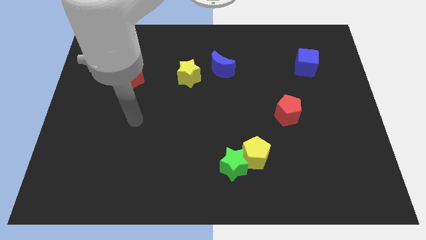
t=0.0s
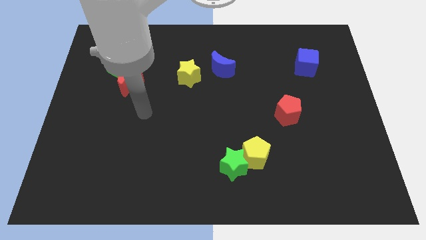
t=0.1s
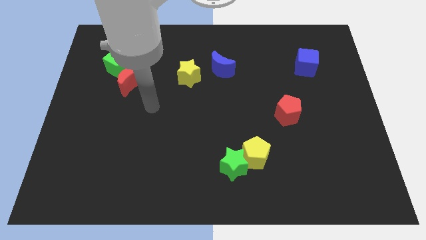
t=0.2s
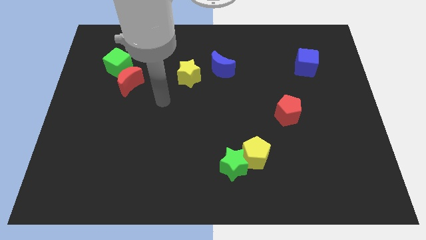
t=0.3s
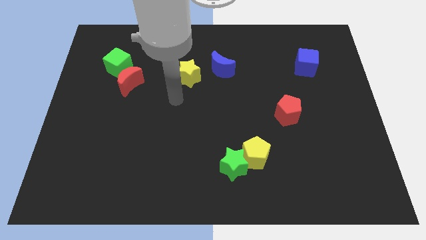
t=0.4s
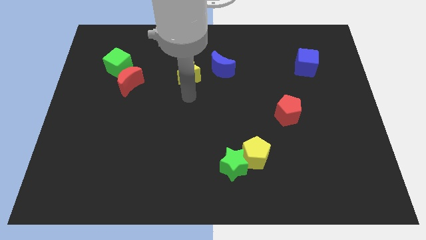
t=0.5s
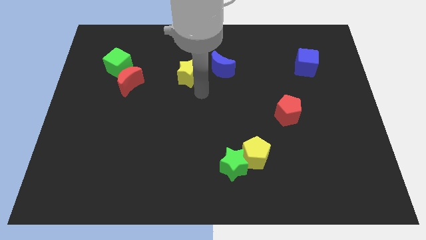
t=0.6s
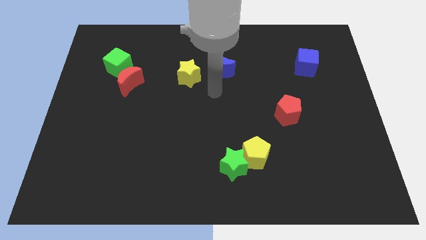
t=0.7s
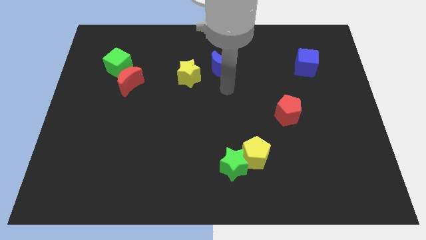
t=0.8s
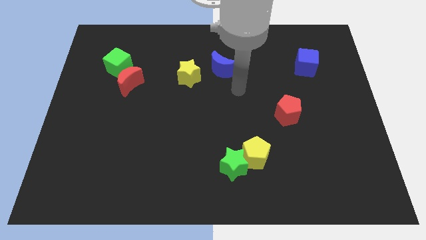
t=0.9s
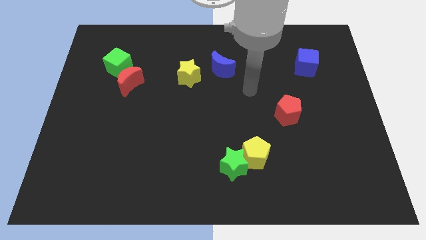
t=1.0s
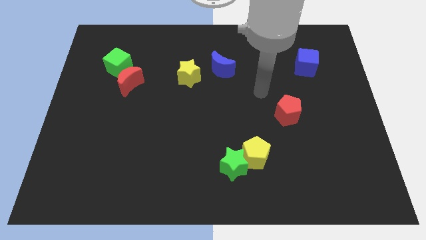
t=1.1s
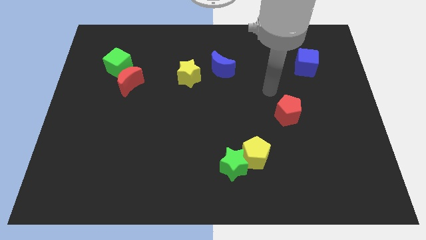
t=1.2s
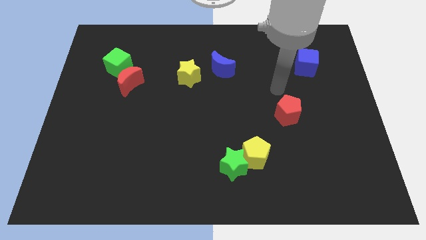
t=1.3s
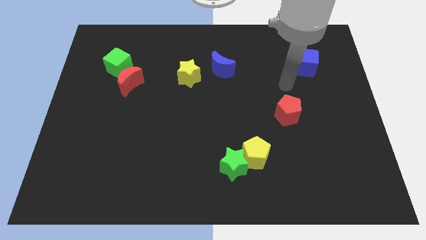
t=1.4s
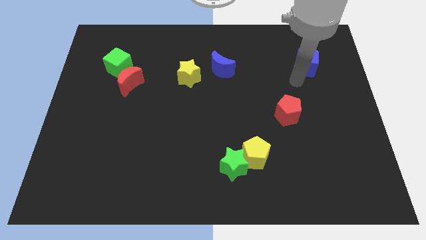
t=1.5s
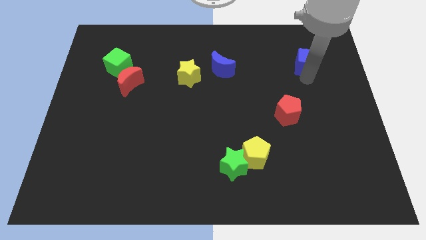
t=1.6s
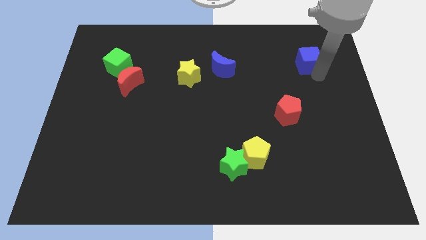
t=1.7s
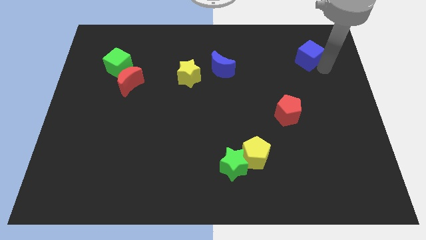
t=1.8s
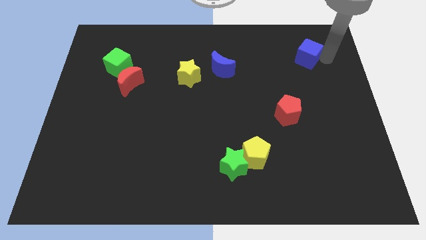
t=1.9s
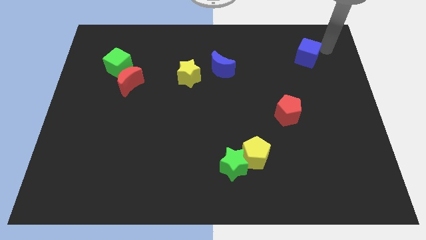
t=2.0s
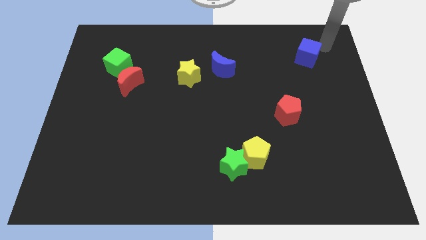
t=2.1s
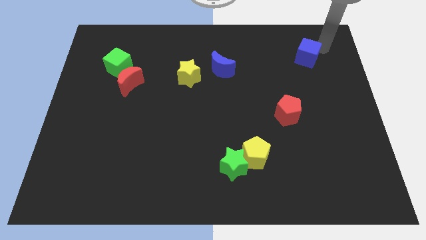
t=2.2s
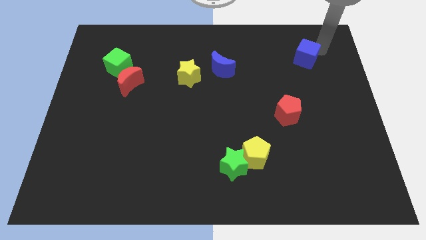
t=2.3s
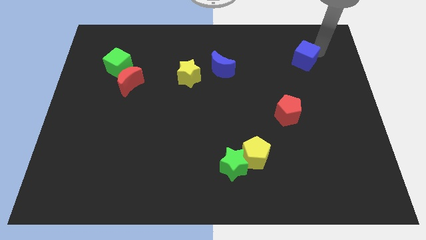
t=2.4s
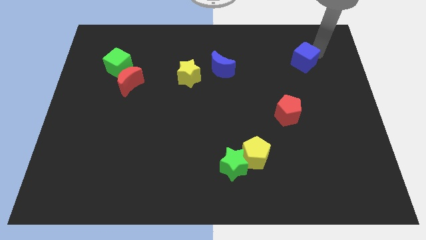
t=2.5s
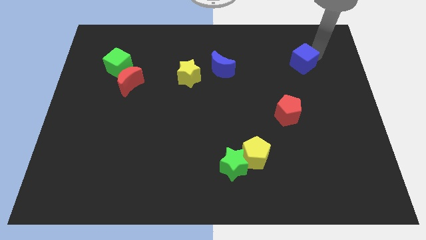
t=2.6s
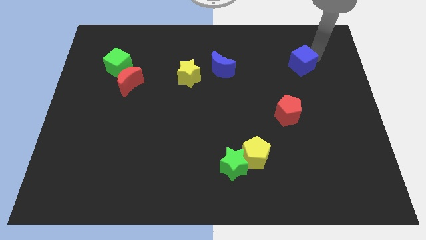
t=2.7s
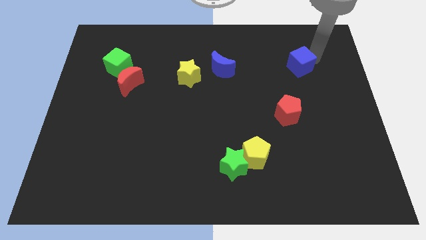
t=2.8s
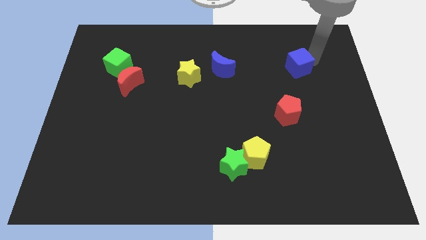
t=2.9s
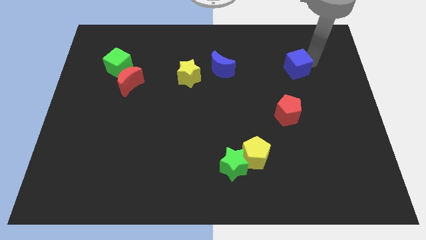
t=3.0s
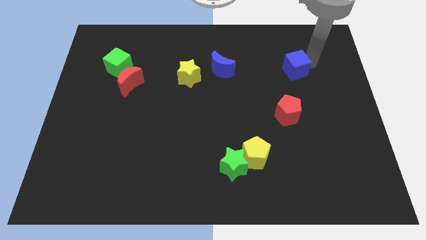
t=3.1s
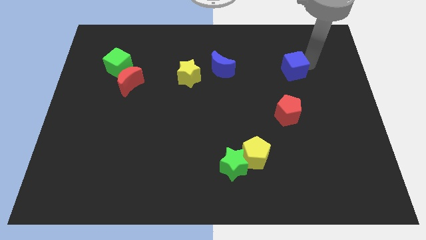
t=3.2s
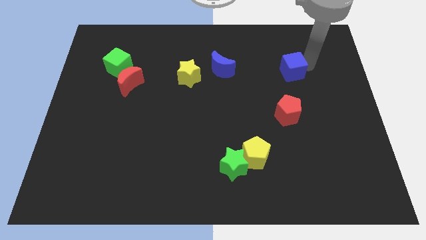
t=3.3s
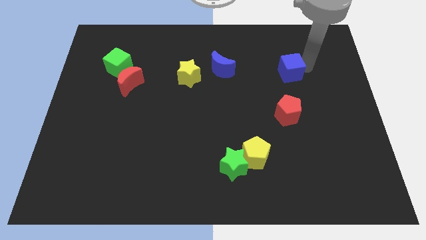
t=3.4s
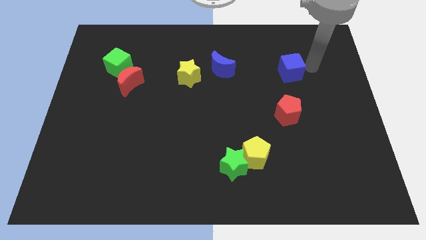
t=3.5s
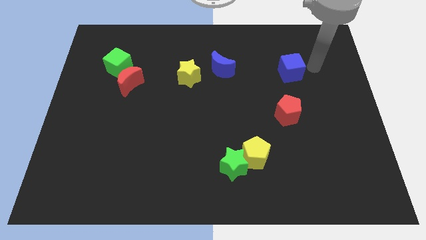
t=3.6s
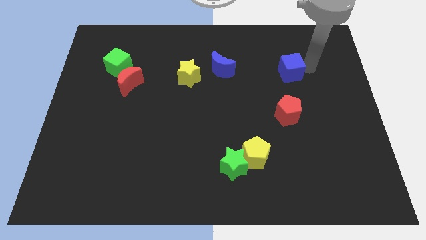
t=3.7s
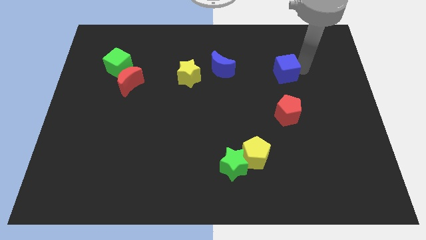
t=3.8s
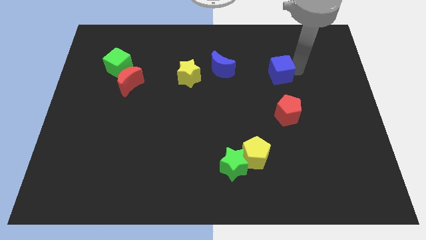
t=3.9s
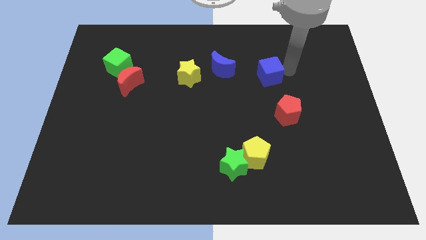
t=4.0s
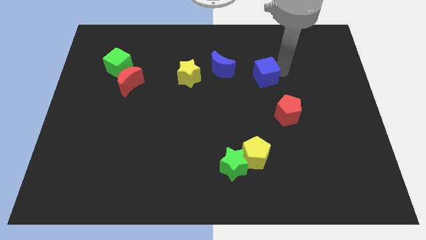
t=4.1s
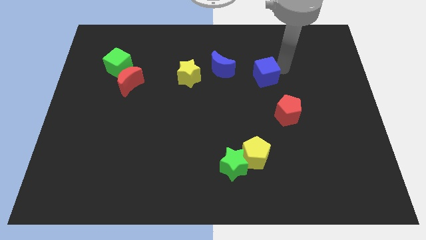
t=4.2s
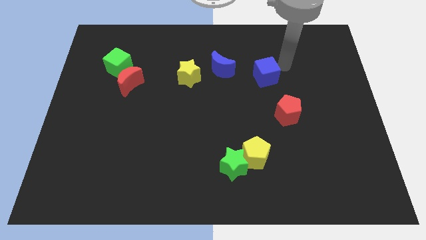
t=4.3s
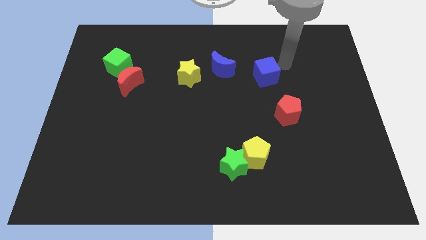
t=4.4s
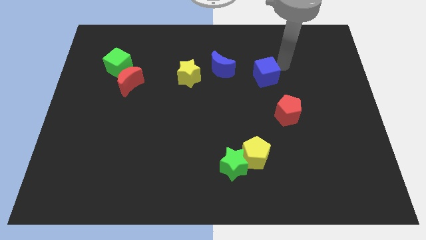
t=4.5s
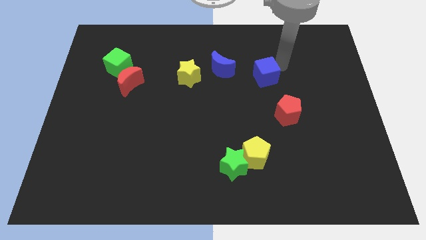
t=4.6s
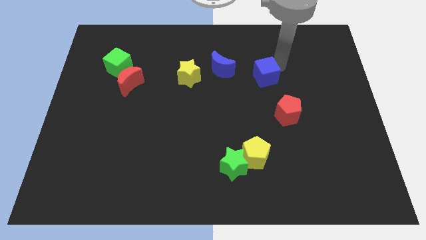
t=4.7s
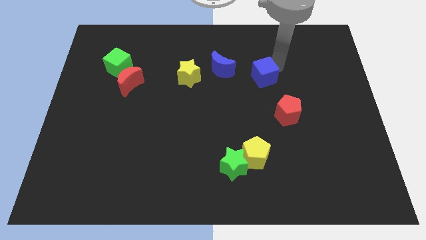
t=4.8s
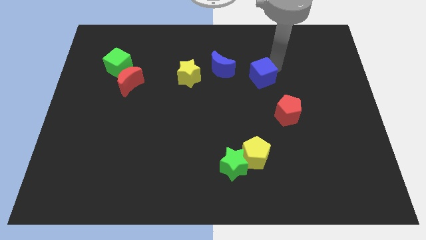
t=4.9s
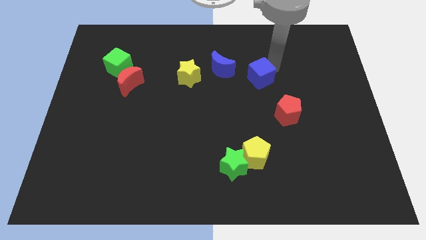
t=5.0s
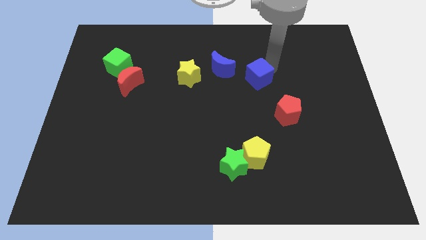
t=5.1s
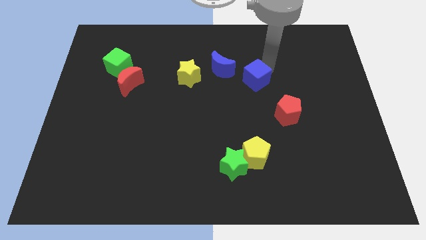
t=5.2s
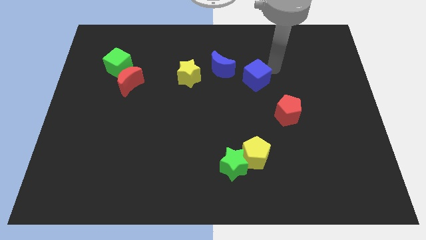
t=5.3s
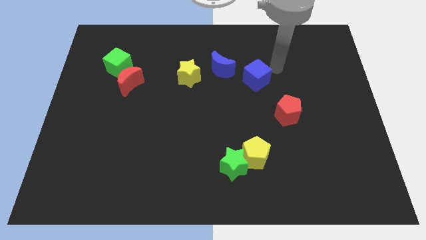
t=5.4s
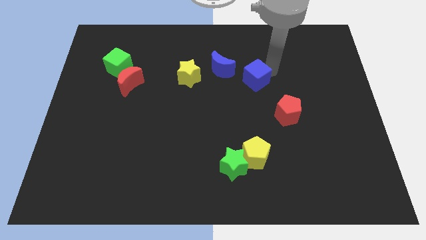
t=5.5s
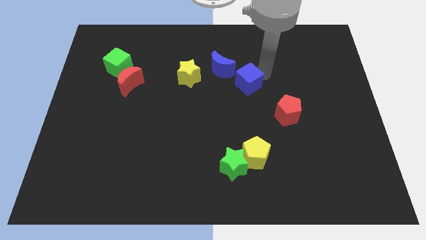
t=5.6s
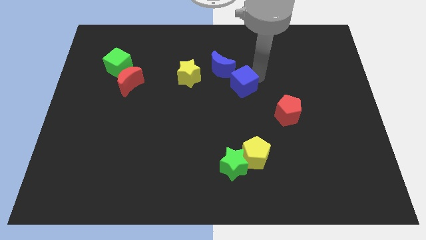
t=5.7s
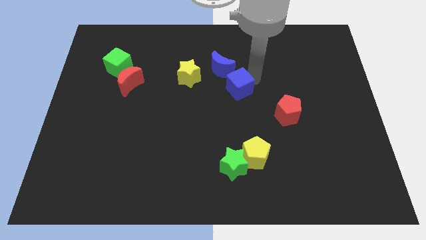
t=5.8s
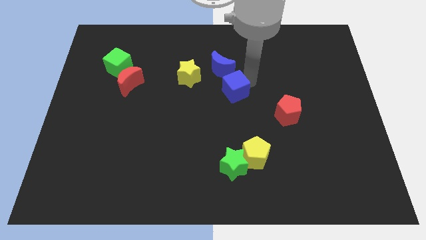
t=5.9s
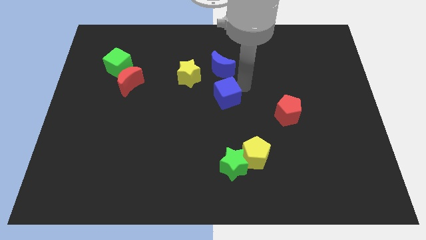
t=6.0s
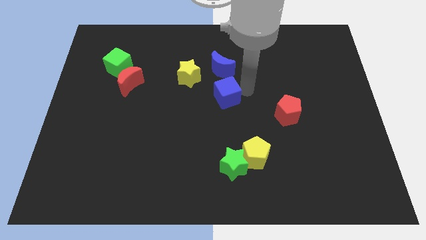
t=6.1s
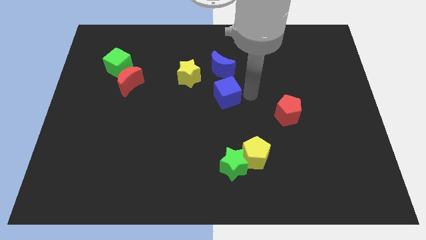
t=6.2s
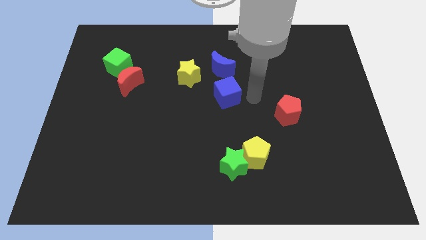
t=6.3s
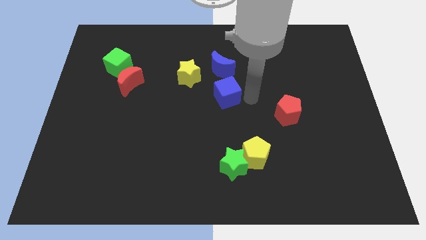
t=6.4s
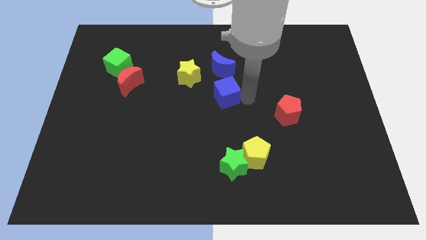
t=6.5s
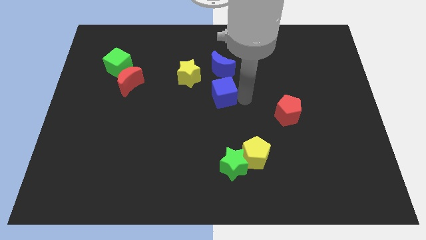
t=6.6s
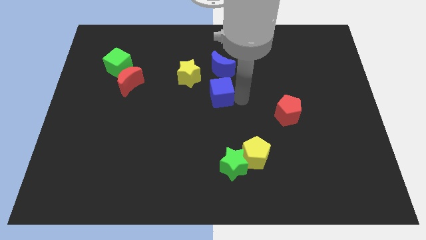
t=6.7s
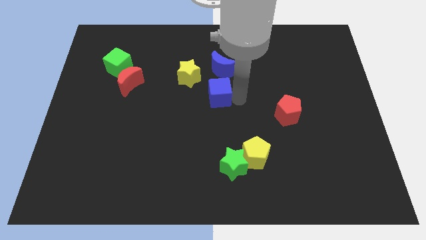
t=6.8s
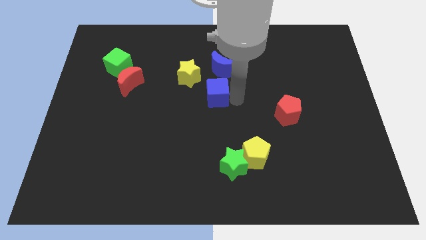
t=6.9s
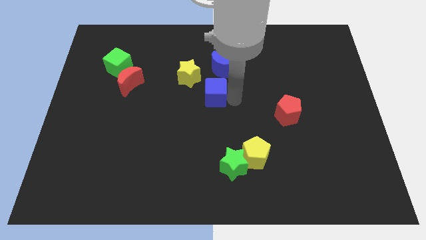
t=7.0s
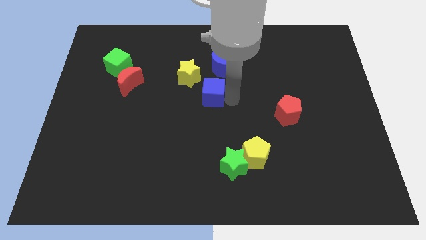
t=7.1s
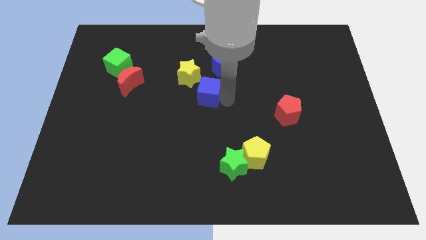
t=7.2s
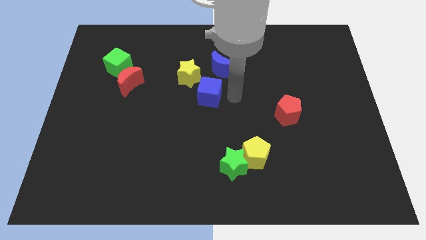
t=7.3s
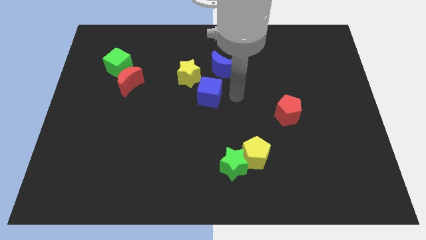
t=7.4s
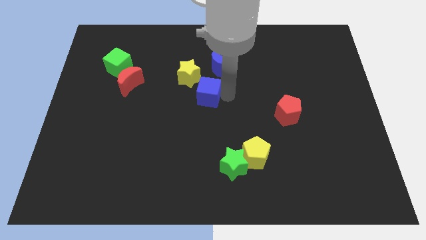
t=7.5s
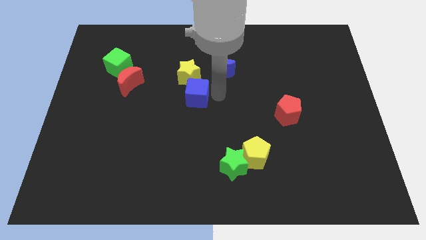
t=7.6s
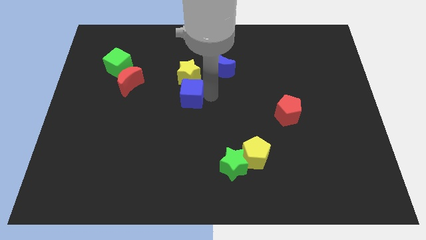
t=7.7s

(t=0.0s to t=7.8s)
push the blue cube diagonally down and to the left of the yellow star
